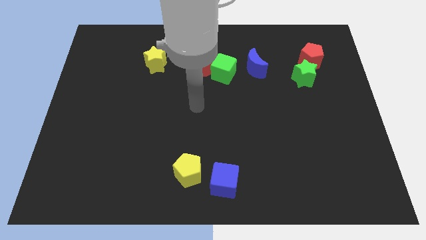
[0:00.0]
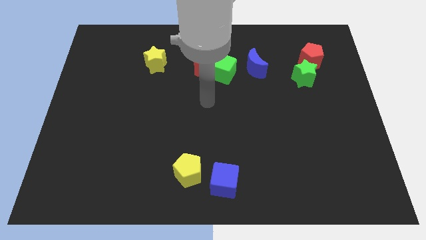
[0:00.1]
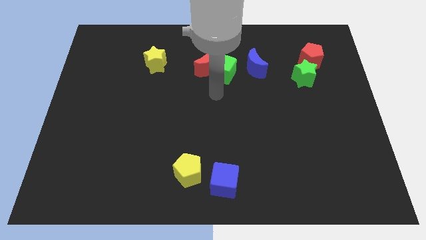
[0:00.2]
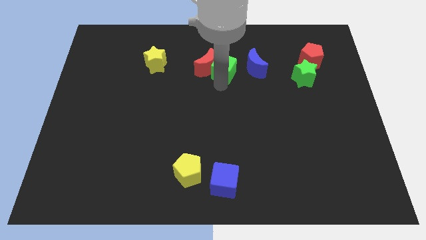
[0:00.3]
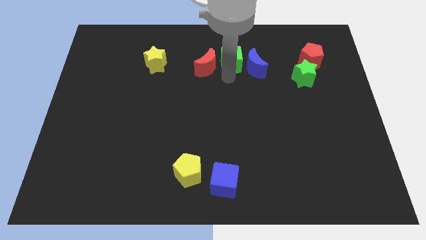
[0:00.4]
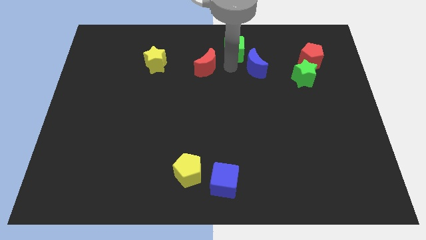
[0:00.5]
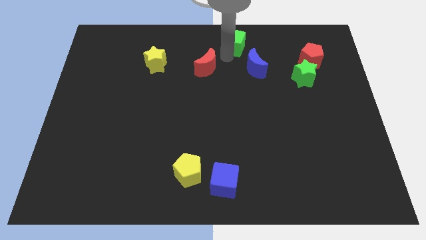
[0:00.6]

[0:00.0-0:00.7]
pull the red moon apart from the green cube

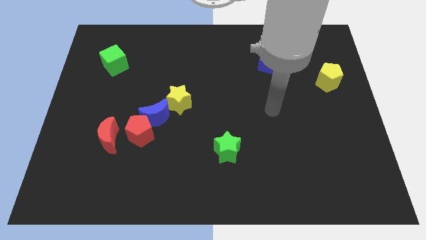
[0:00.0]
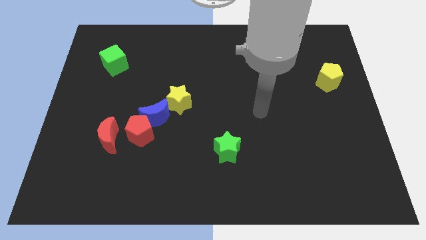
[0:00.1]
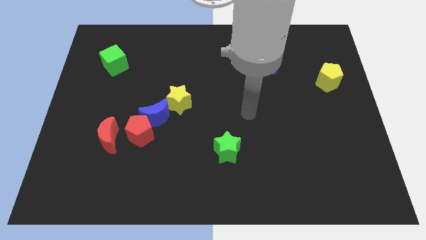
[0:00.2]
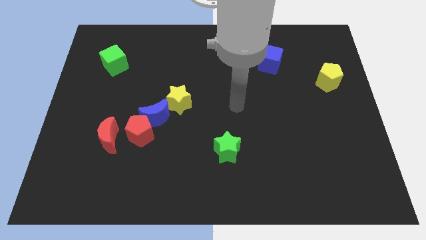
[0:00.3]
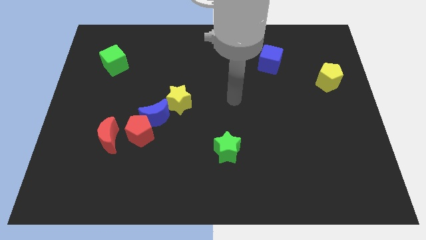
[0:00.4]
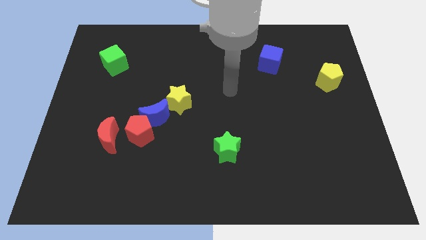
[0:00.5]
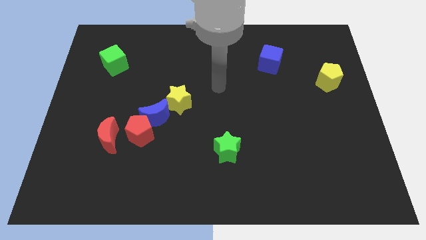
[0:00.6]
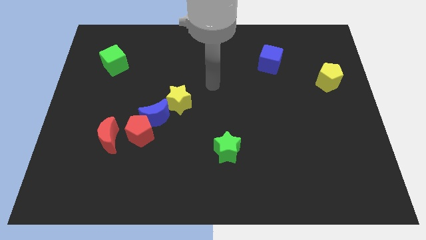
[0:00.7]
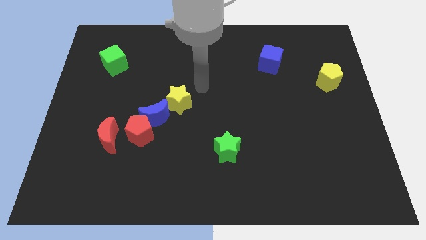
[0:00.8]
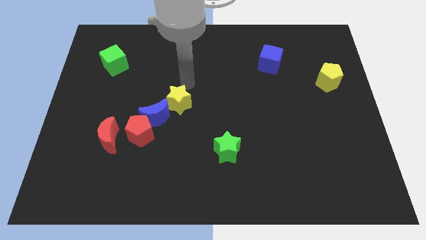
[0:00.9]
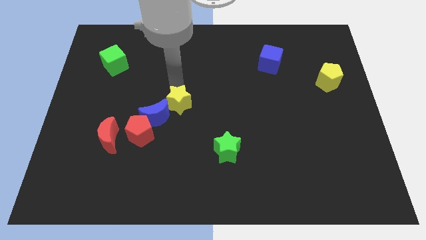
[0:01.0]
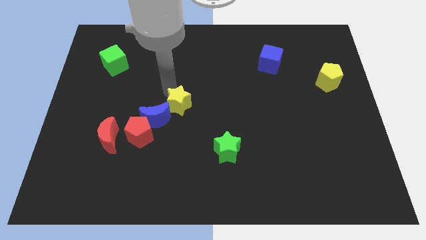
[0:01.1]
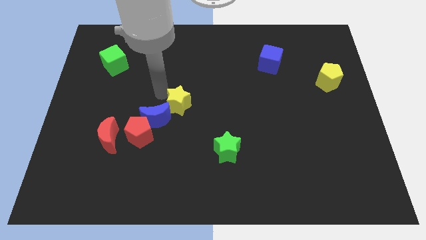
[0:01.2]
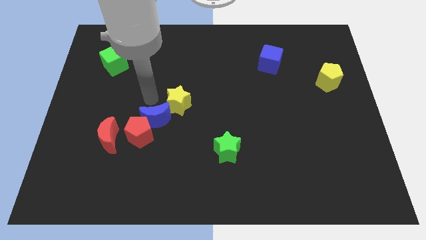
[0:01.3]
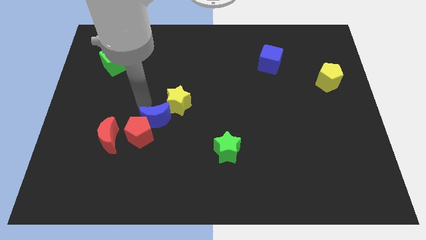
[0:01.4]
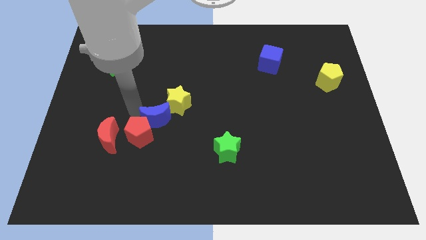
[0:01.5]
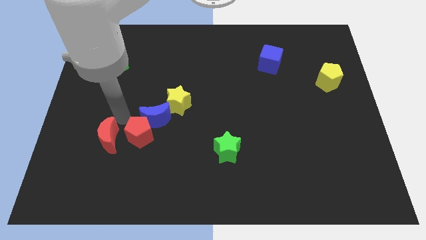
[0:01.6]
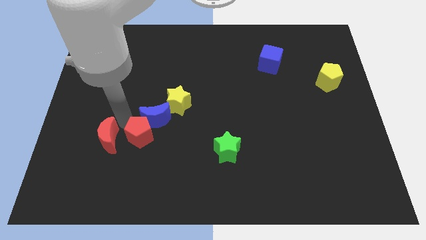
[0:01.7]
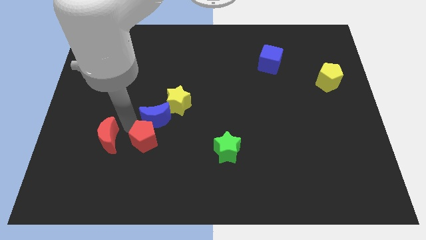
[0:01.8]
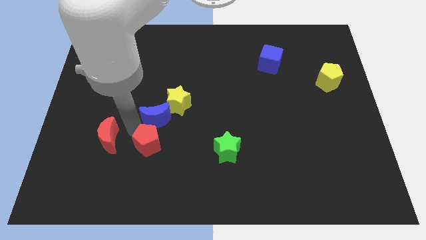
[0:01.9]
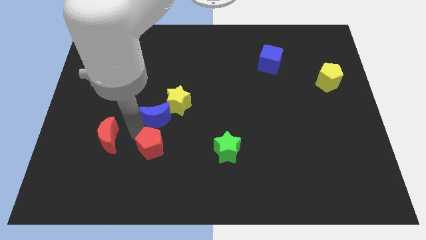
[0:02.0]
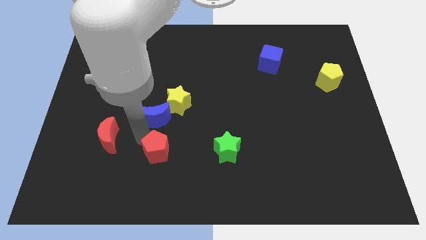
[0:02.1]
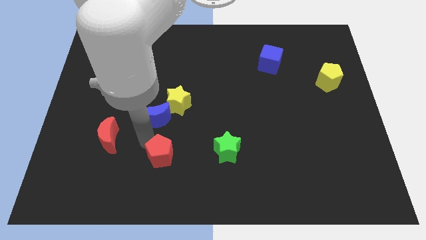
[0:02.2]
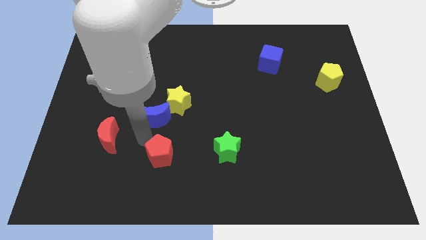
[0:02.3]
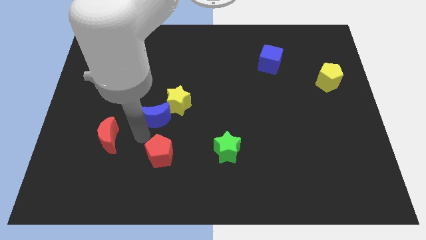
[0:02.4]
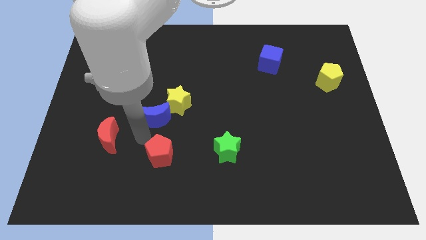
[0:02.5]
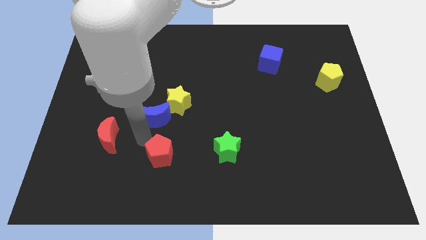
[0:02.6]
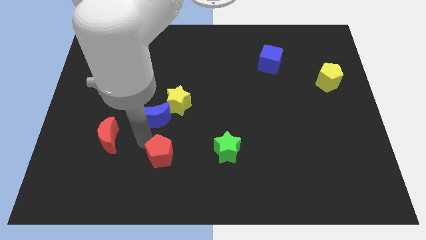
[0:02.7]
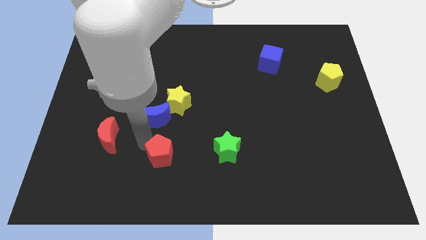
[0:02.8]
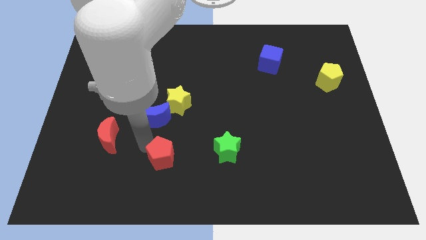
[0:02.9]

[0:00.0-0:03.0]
separate the red pentagon from the blue moon and red moon

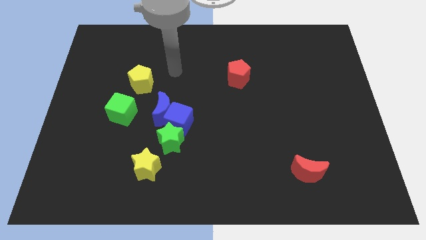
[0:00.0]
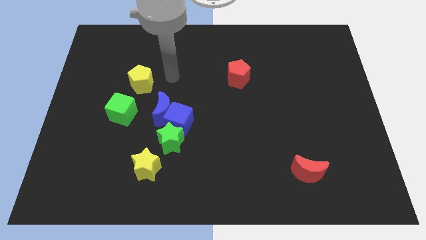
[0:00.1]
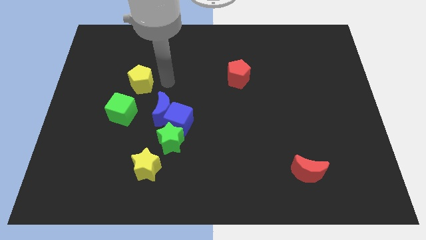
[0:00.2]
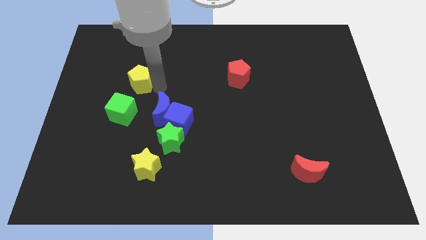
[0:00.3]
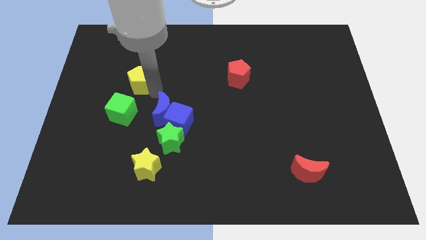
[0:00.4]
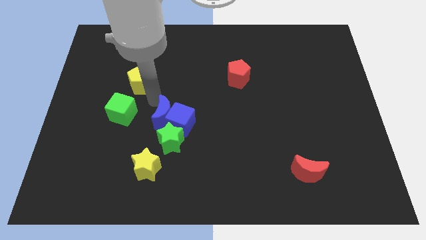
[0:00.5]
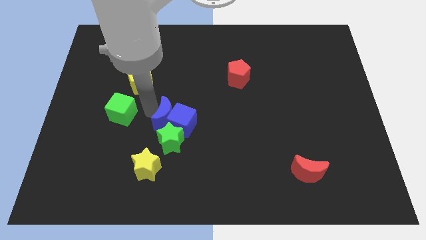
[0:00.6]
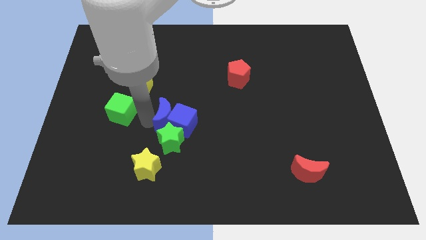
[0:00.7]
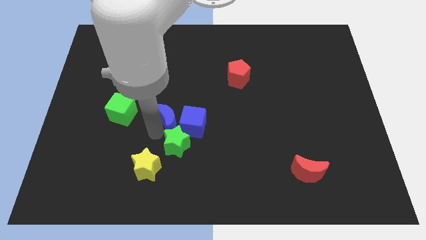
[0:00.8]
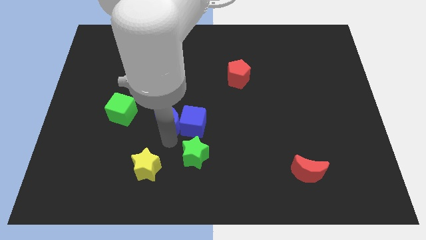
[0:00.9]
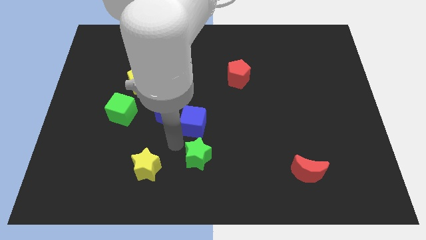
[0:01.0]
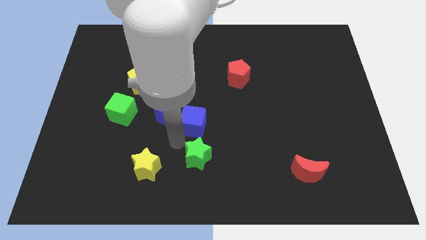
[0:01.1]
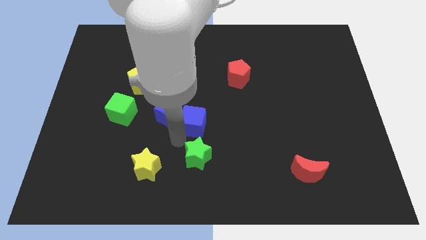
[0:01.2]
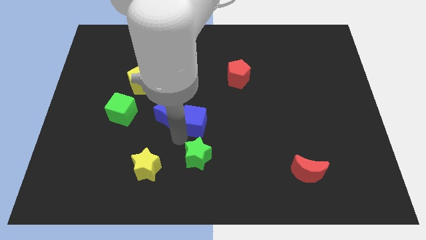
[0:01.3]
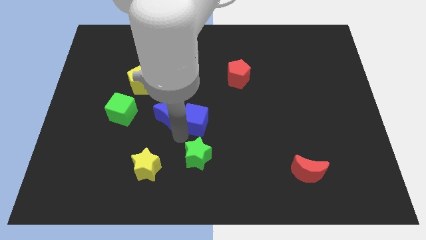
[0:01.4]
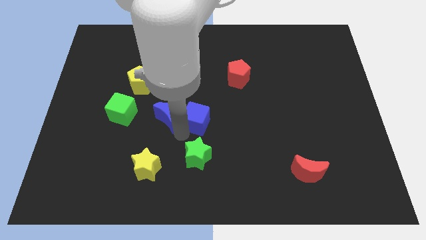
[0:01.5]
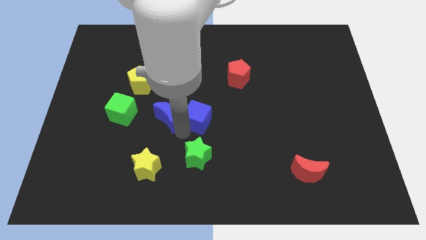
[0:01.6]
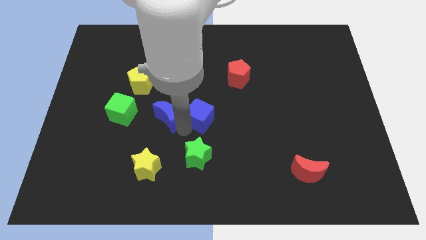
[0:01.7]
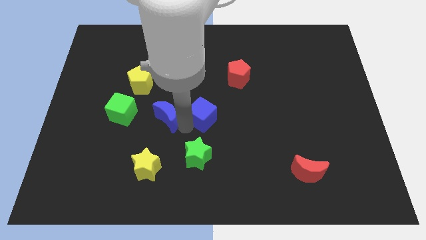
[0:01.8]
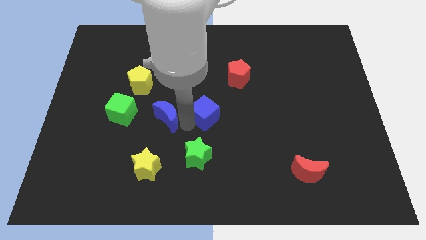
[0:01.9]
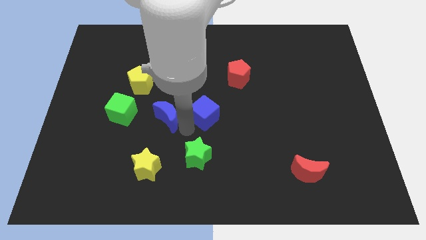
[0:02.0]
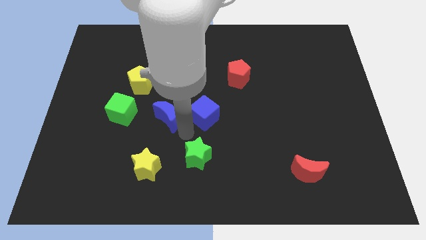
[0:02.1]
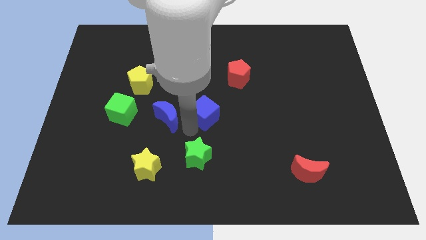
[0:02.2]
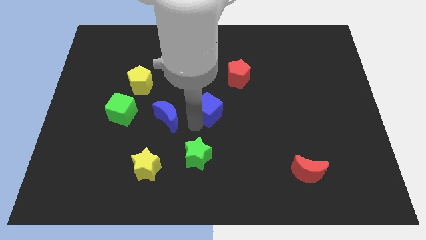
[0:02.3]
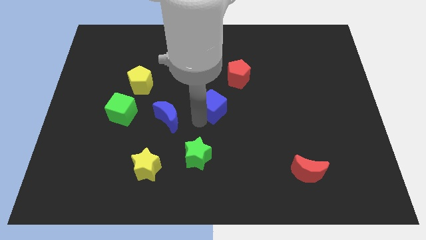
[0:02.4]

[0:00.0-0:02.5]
pull the blue cube apart from the blue moon and green star

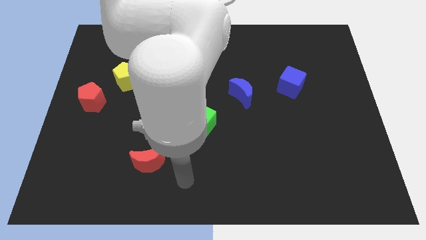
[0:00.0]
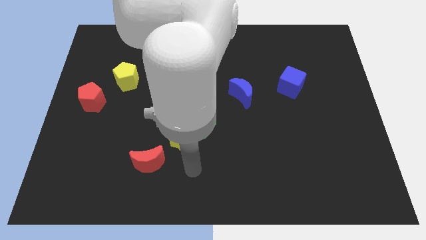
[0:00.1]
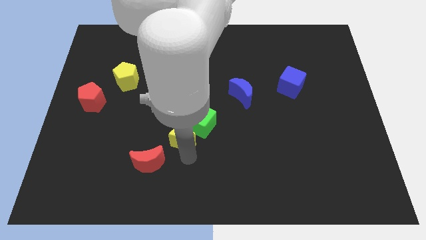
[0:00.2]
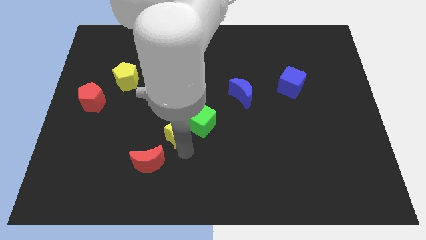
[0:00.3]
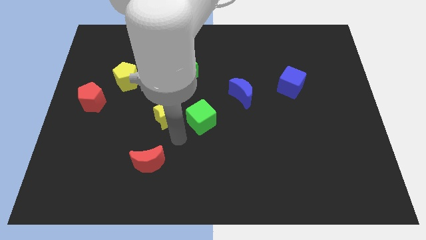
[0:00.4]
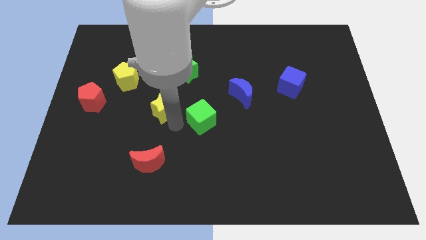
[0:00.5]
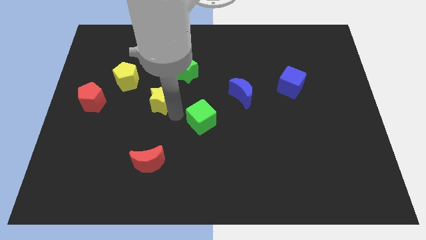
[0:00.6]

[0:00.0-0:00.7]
move the green cube away from the yellow star

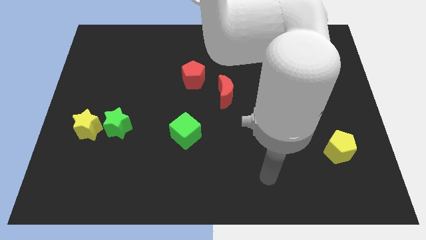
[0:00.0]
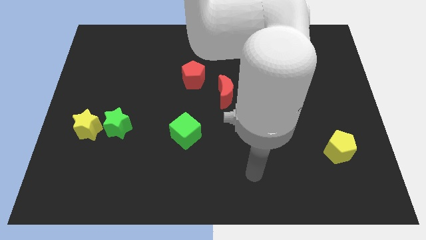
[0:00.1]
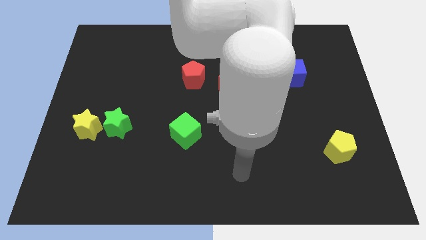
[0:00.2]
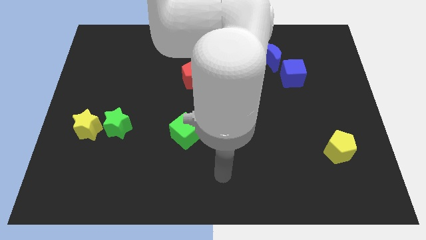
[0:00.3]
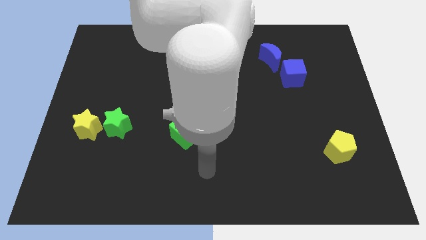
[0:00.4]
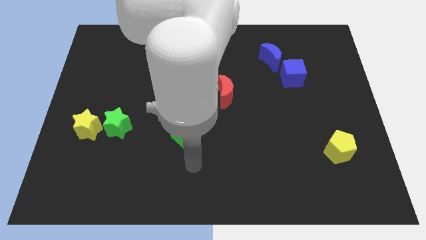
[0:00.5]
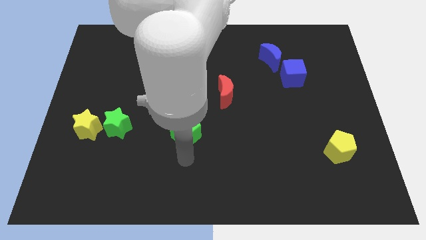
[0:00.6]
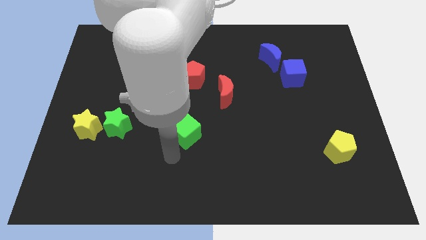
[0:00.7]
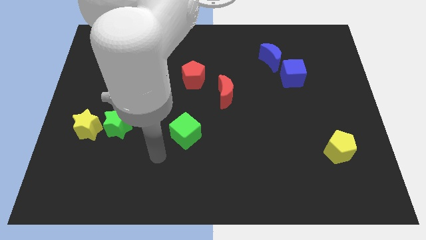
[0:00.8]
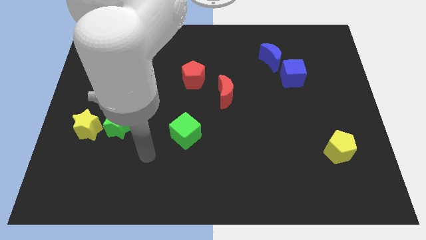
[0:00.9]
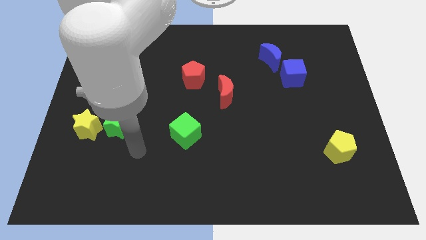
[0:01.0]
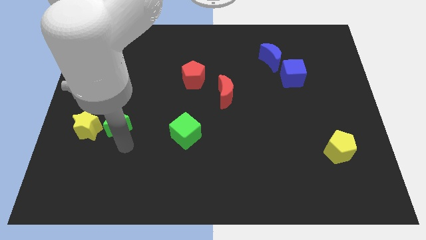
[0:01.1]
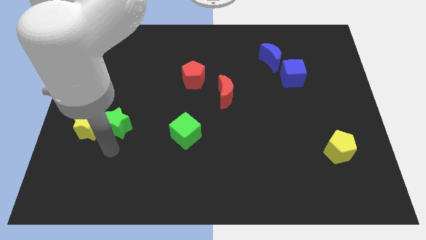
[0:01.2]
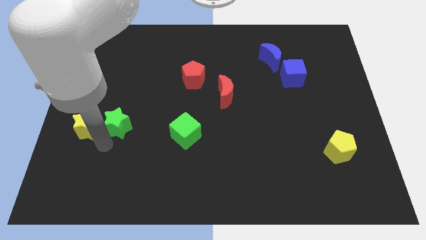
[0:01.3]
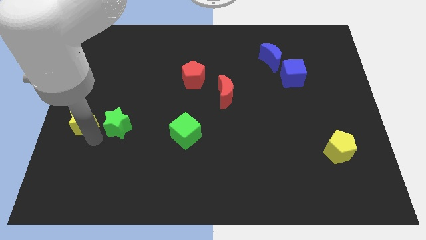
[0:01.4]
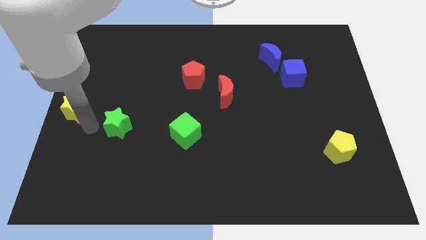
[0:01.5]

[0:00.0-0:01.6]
pull the green star apart from the yellow star

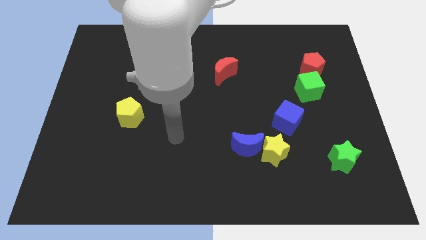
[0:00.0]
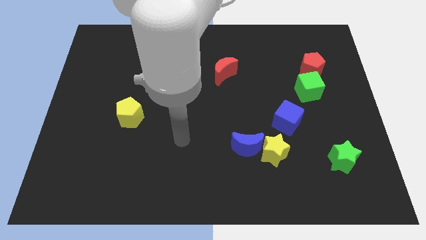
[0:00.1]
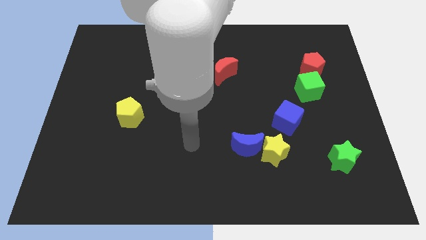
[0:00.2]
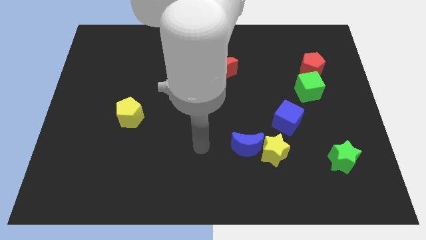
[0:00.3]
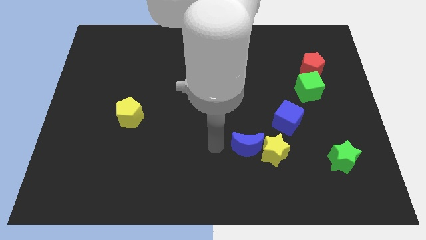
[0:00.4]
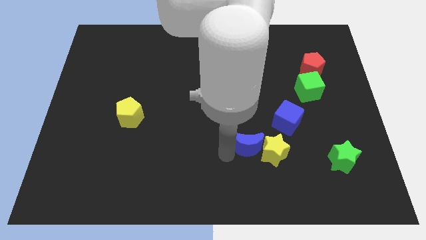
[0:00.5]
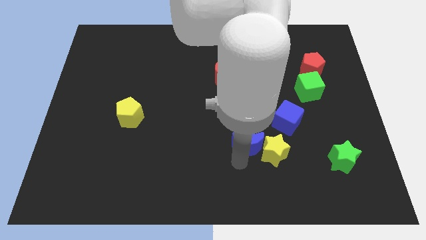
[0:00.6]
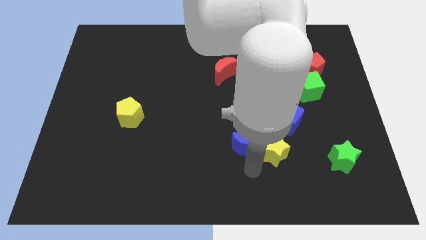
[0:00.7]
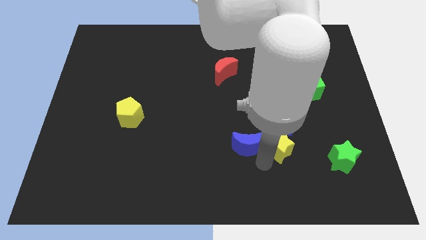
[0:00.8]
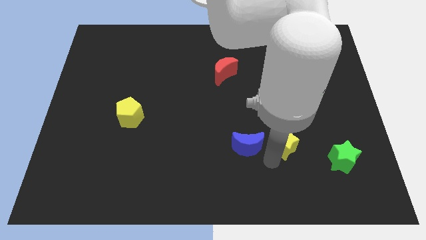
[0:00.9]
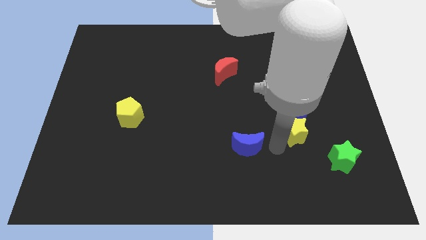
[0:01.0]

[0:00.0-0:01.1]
move the blue moon away from the yellow star
